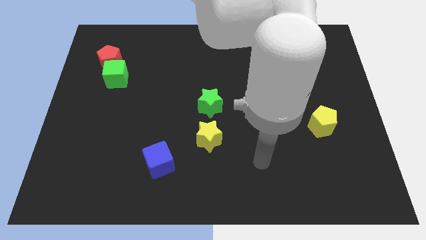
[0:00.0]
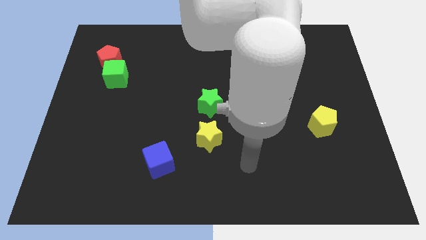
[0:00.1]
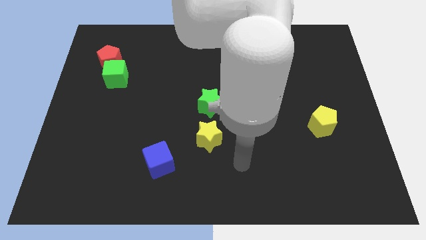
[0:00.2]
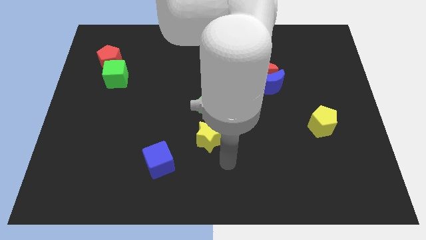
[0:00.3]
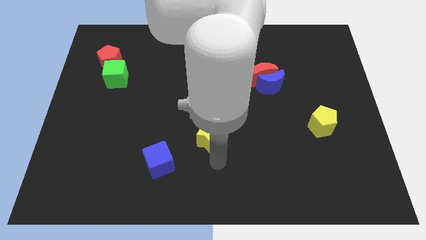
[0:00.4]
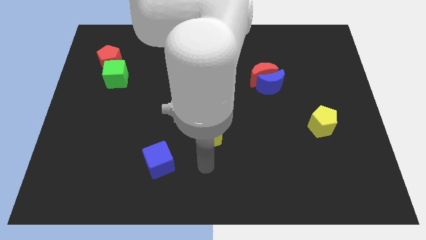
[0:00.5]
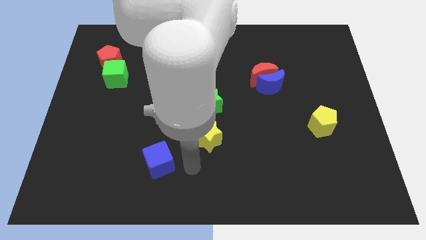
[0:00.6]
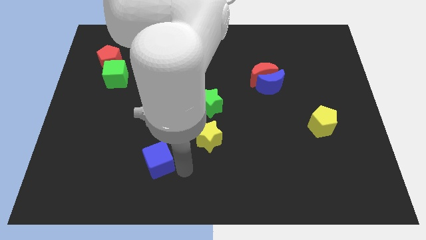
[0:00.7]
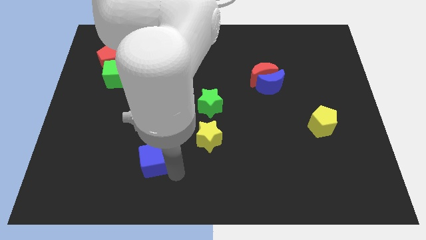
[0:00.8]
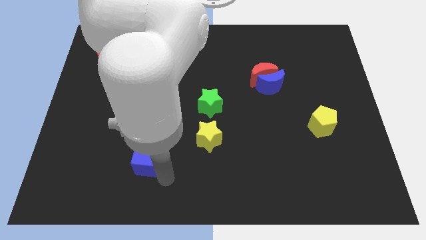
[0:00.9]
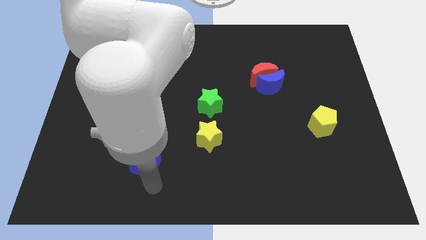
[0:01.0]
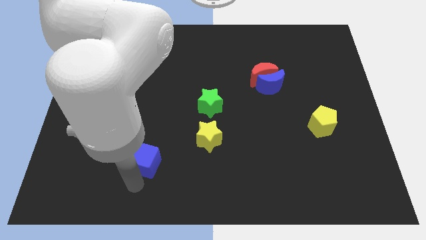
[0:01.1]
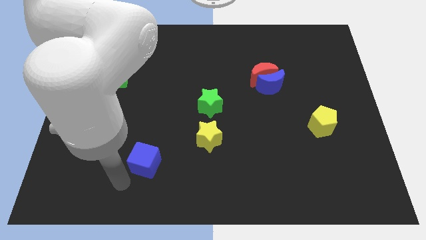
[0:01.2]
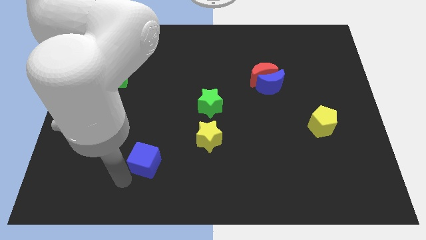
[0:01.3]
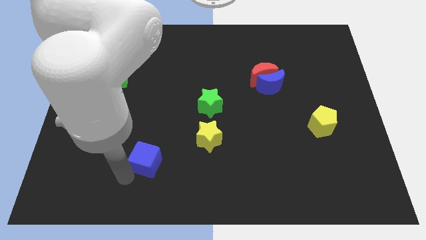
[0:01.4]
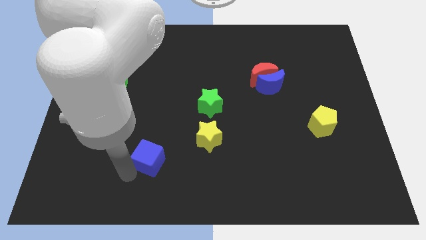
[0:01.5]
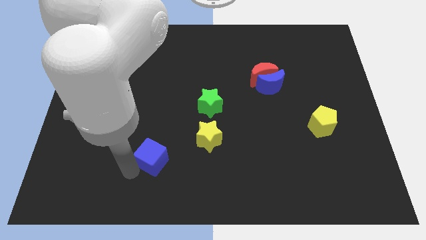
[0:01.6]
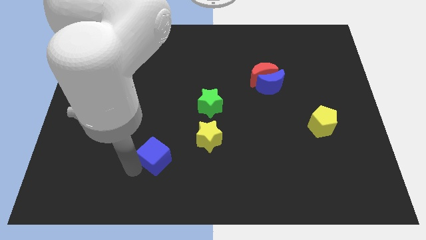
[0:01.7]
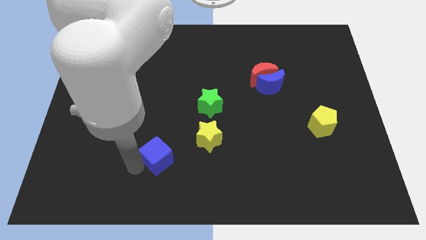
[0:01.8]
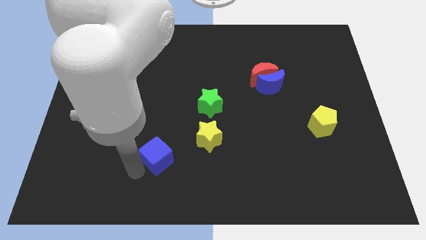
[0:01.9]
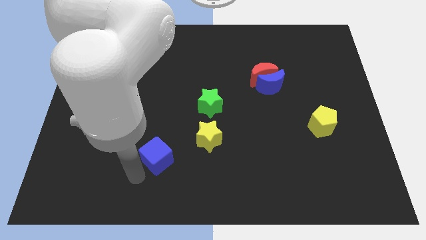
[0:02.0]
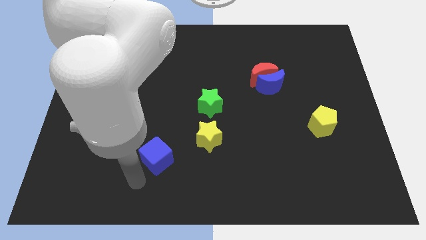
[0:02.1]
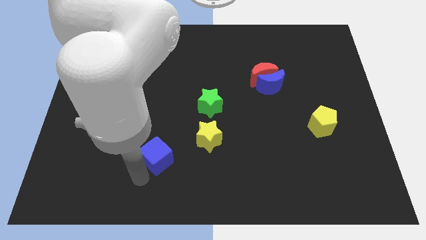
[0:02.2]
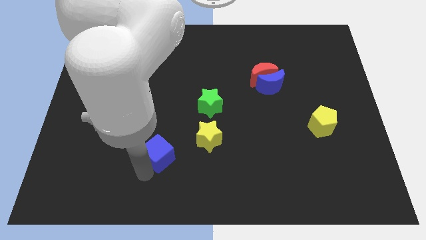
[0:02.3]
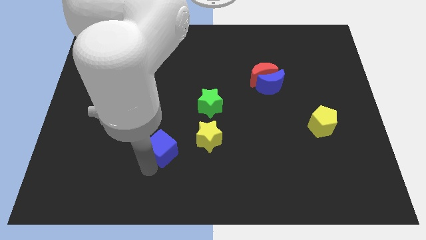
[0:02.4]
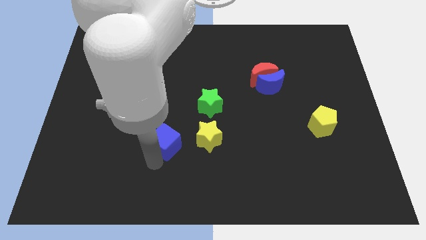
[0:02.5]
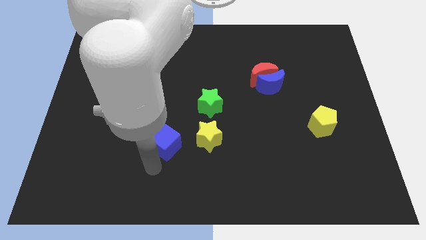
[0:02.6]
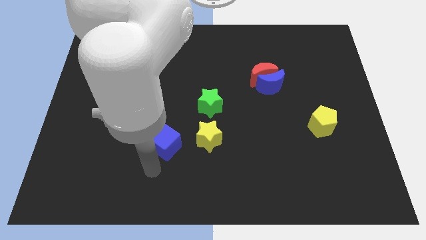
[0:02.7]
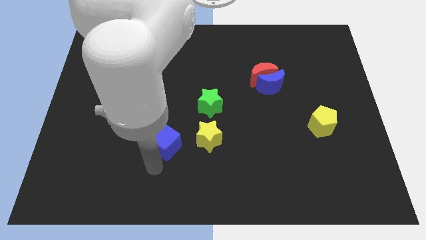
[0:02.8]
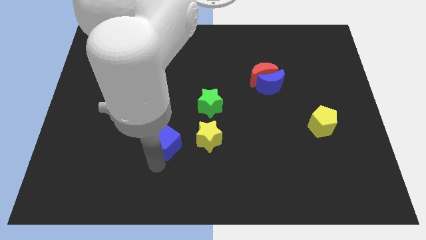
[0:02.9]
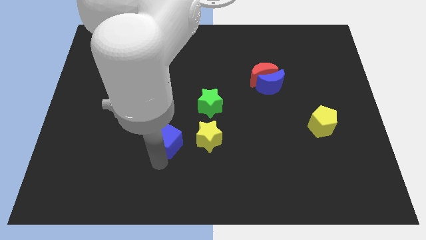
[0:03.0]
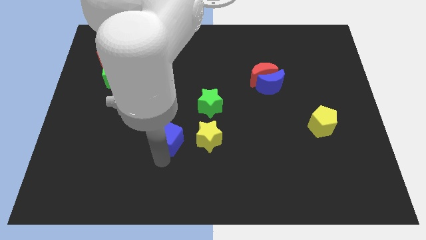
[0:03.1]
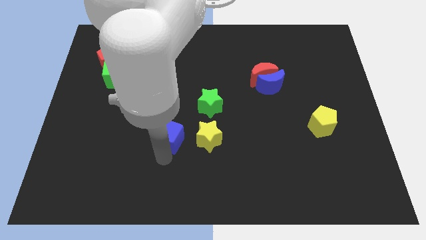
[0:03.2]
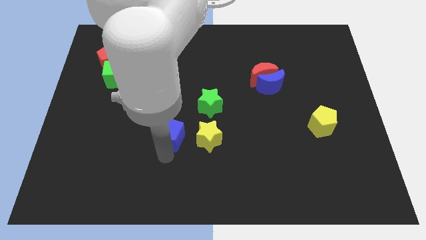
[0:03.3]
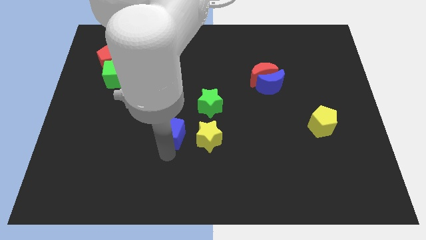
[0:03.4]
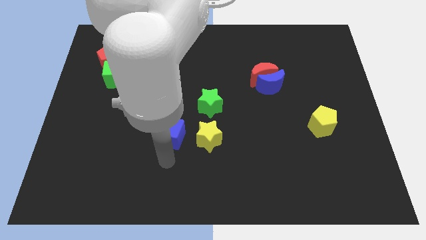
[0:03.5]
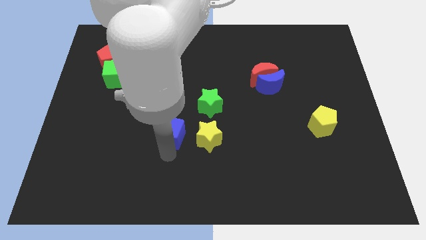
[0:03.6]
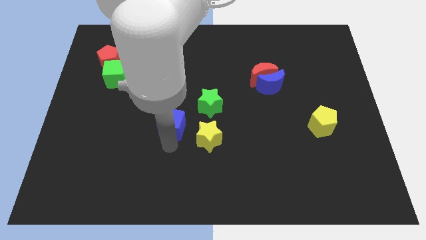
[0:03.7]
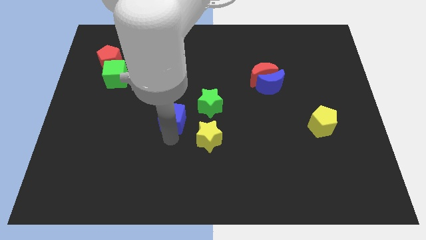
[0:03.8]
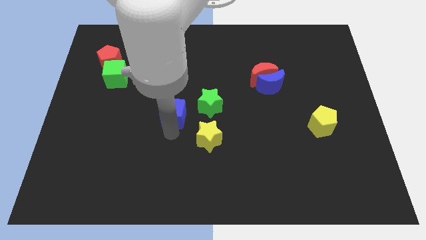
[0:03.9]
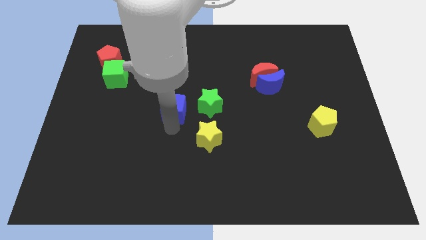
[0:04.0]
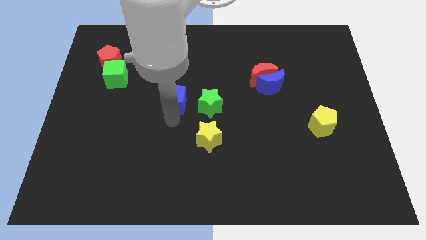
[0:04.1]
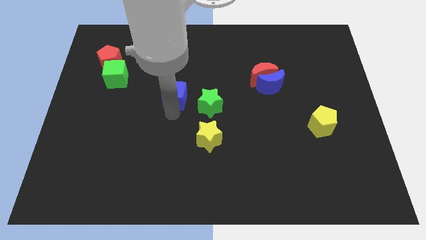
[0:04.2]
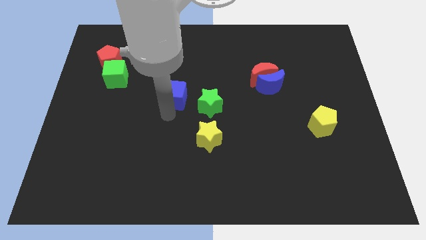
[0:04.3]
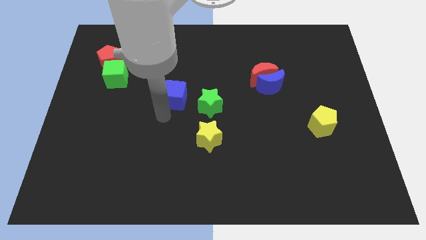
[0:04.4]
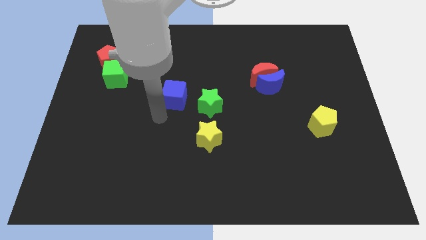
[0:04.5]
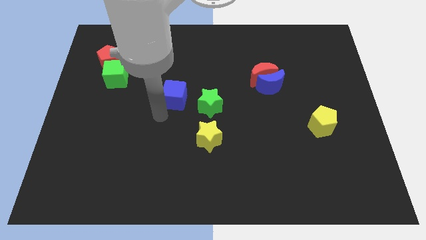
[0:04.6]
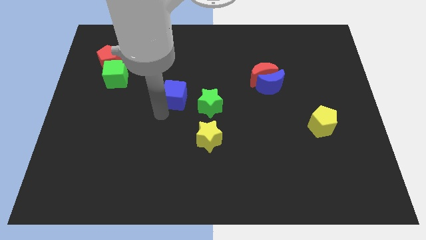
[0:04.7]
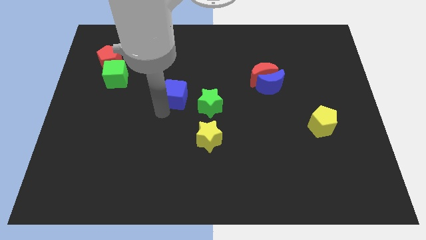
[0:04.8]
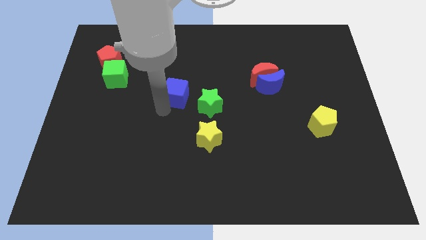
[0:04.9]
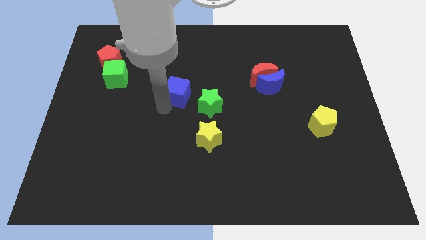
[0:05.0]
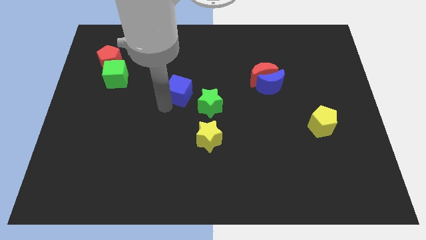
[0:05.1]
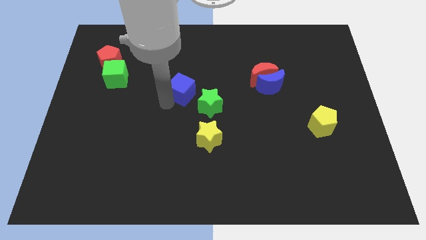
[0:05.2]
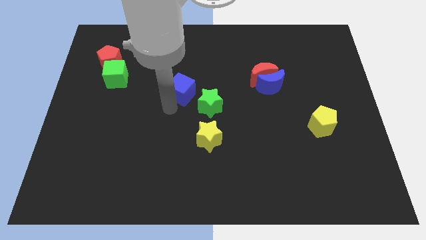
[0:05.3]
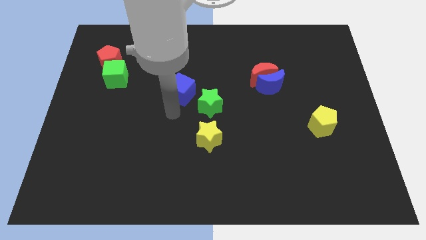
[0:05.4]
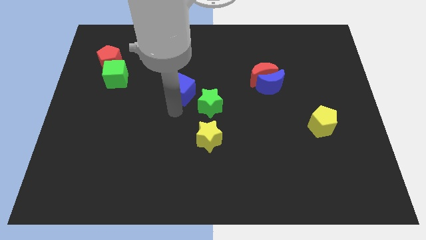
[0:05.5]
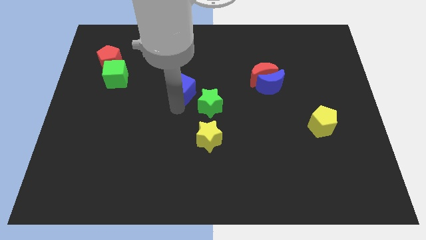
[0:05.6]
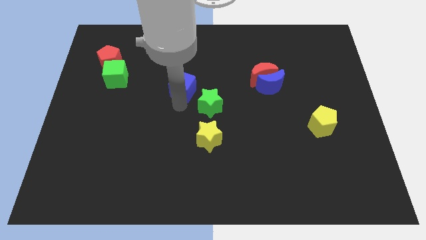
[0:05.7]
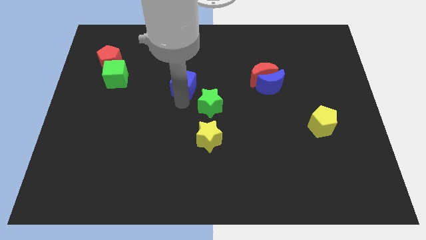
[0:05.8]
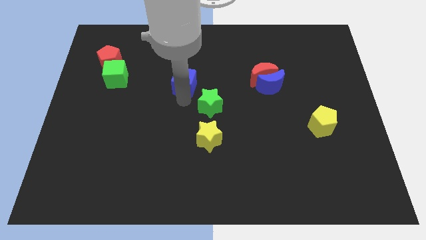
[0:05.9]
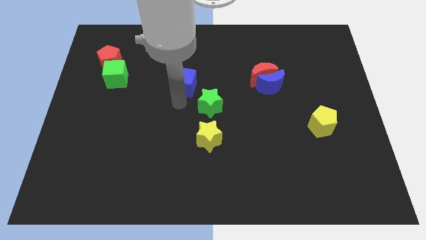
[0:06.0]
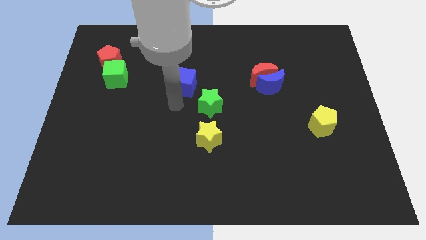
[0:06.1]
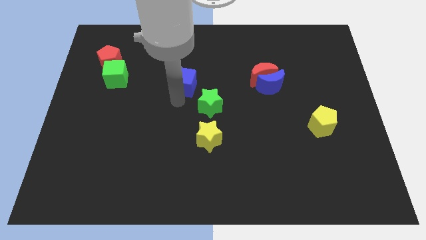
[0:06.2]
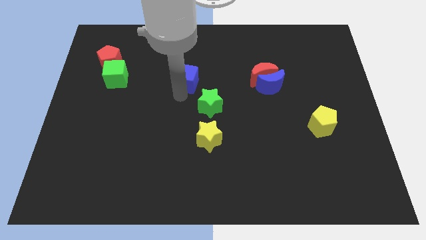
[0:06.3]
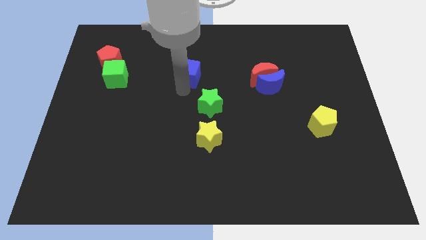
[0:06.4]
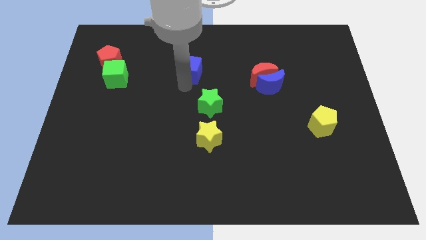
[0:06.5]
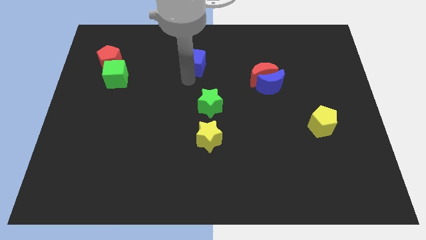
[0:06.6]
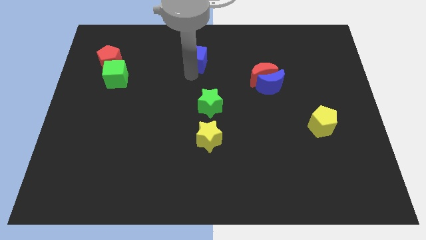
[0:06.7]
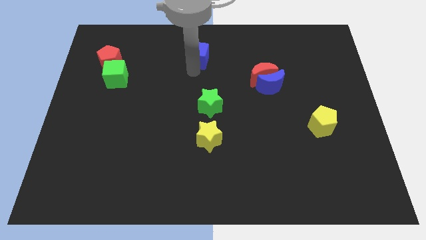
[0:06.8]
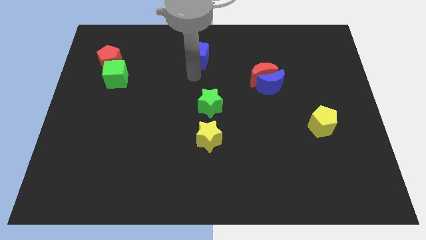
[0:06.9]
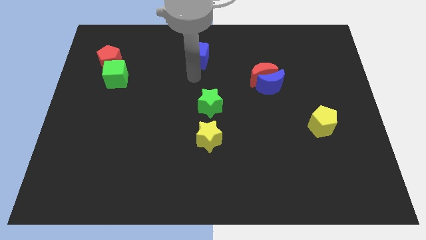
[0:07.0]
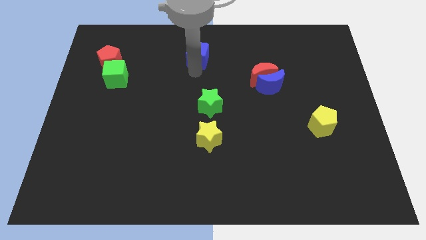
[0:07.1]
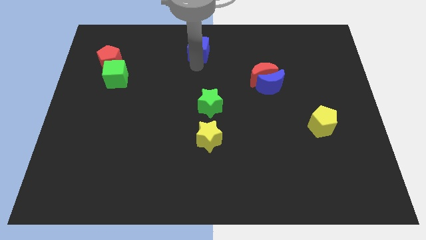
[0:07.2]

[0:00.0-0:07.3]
put the blue cube to the top side
